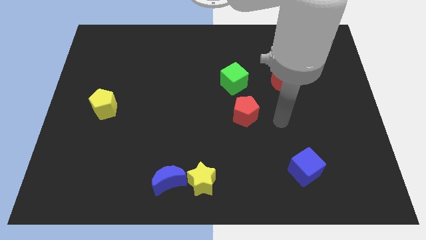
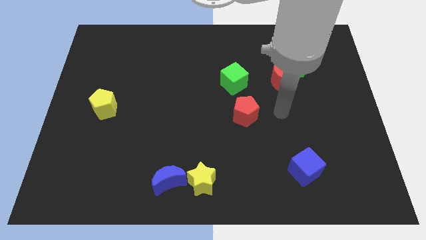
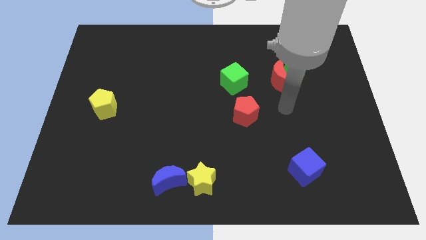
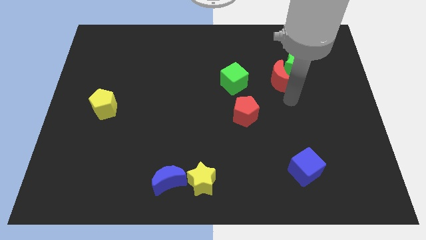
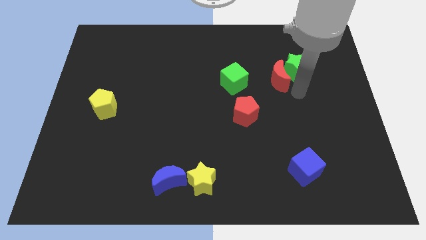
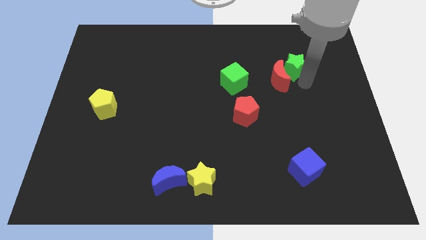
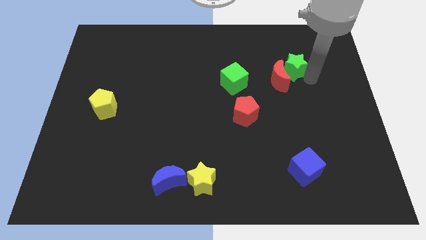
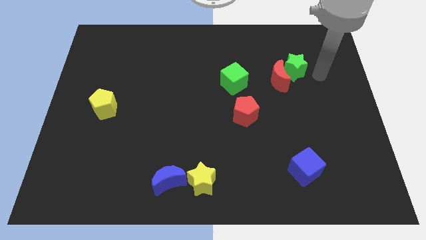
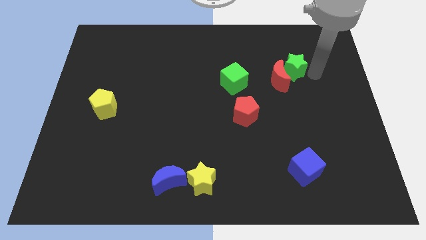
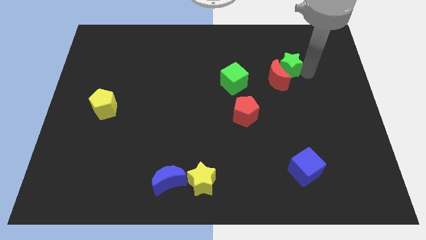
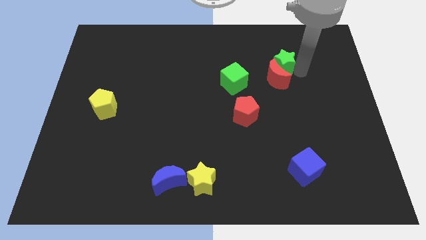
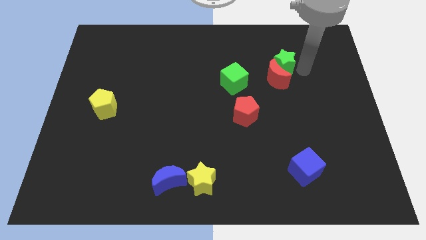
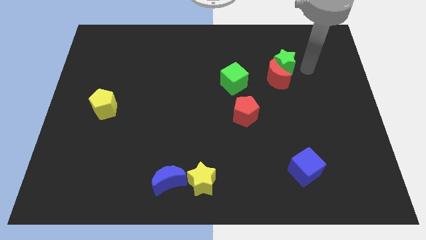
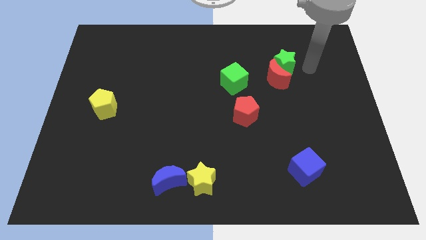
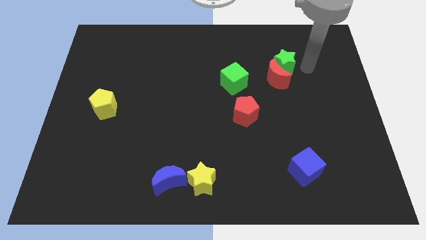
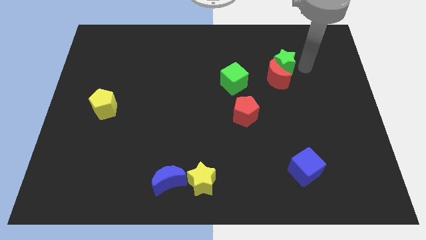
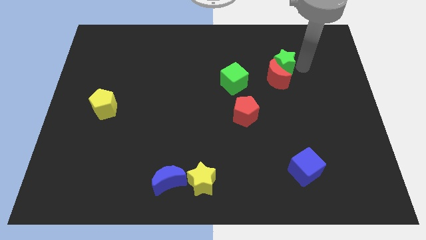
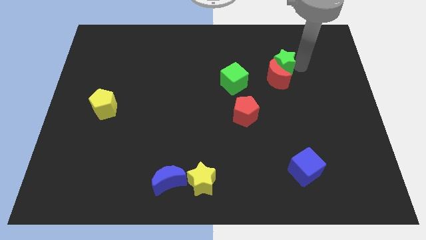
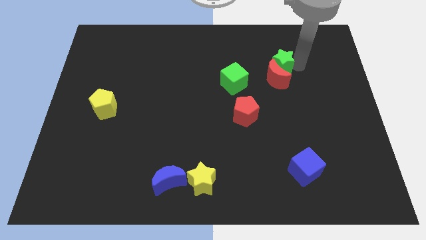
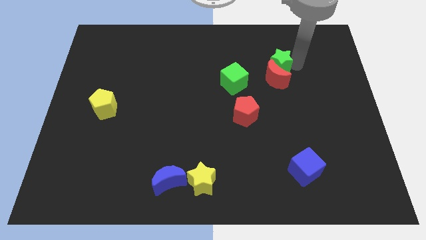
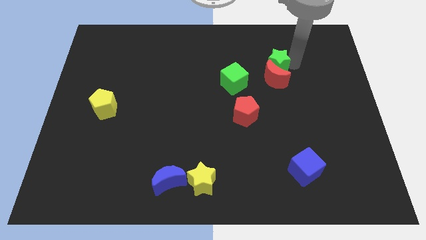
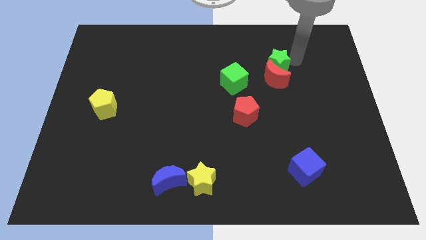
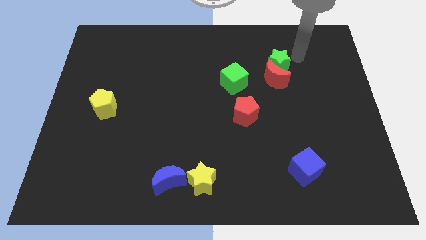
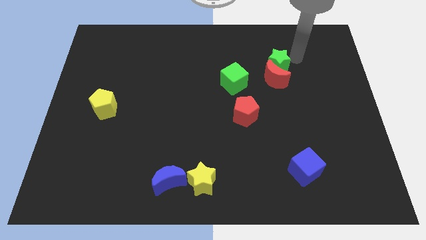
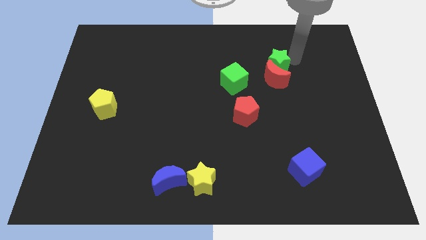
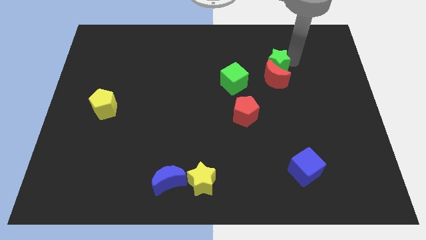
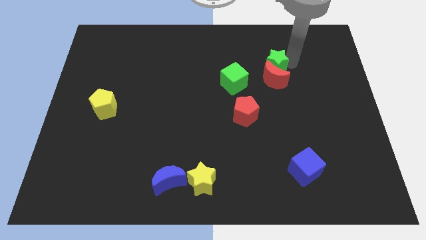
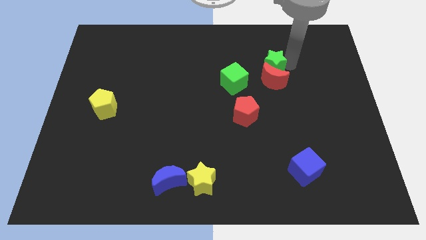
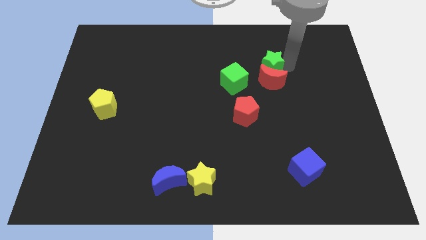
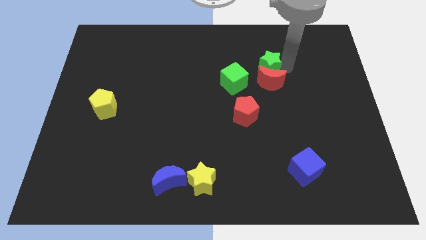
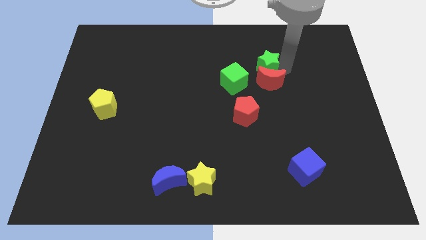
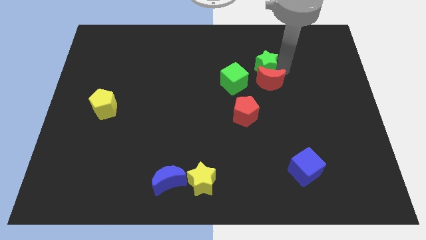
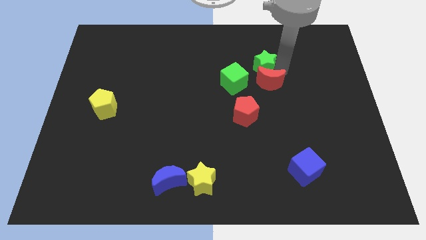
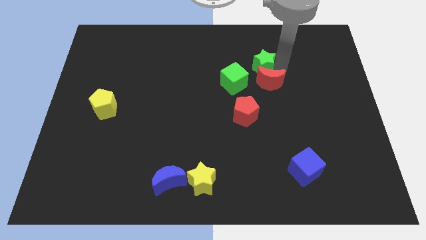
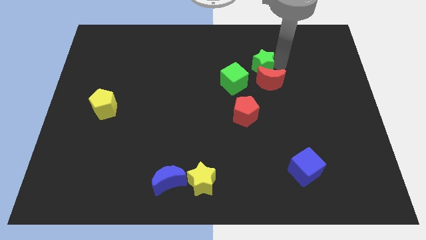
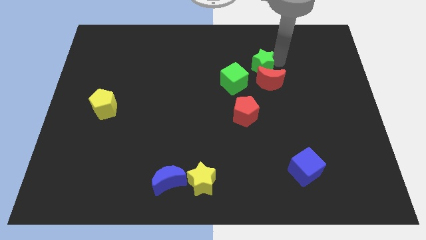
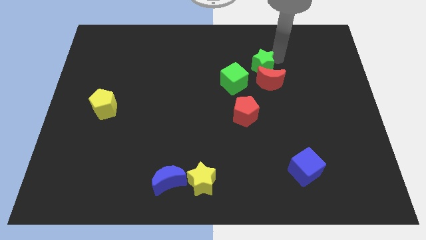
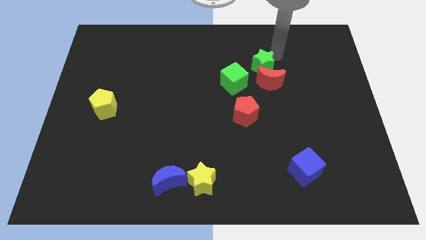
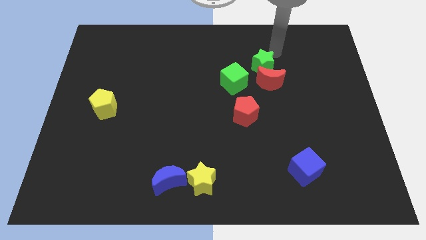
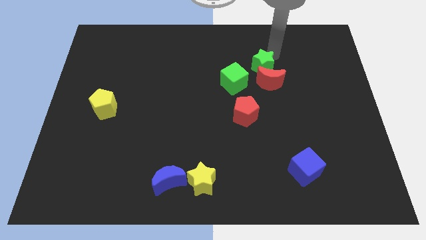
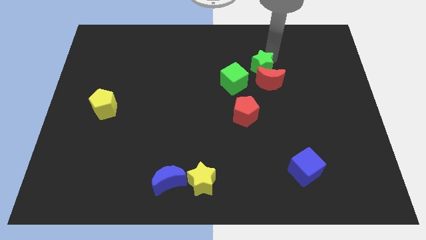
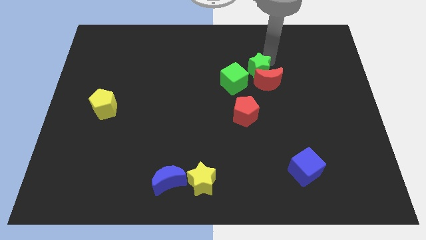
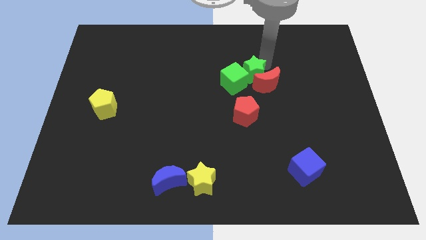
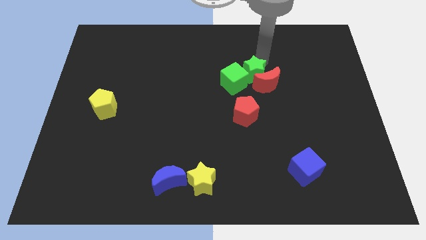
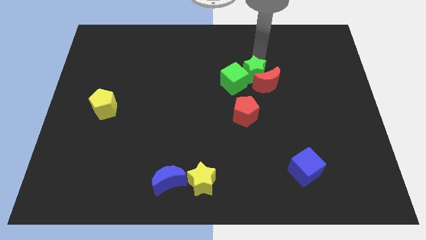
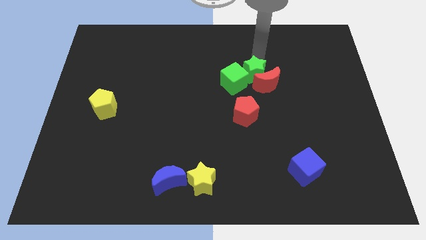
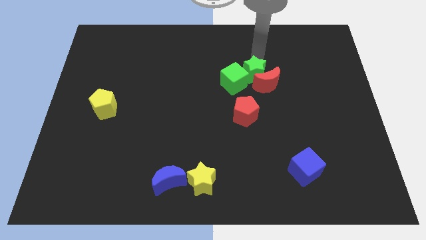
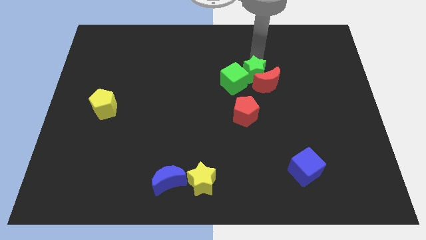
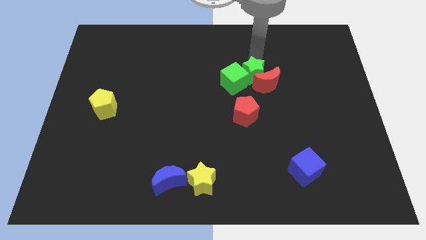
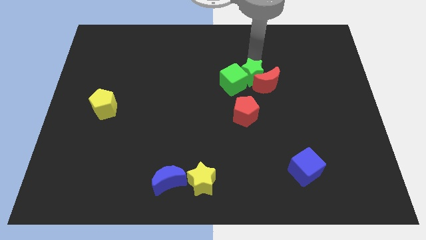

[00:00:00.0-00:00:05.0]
push the green star to the center

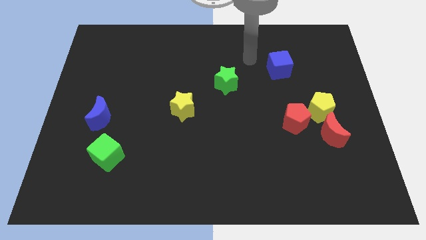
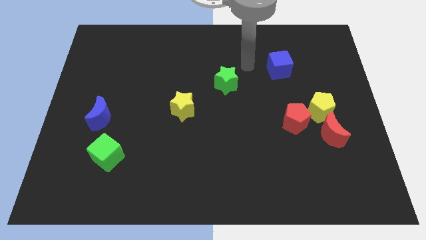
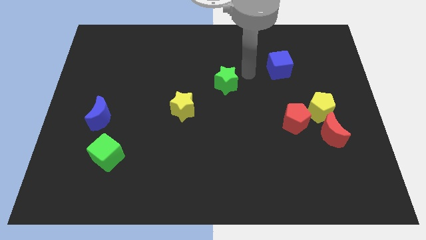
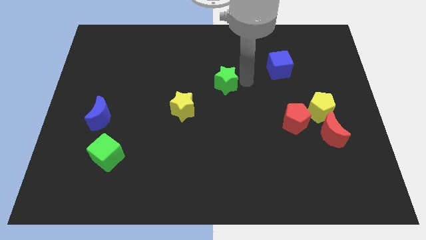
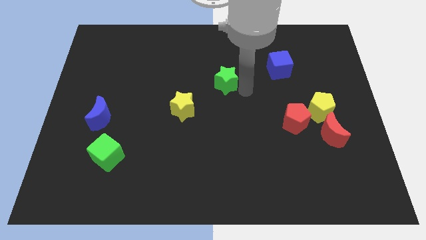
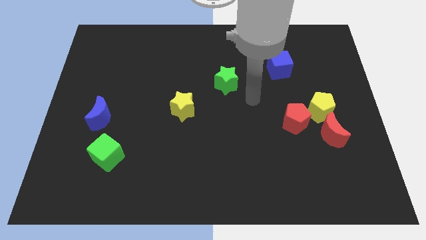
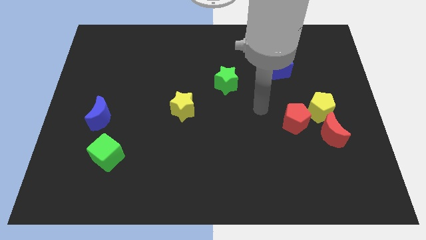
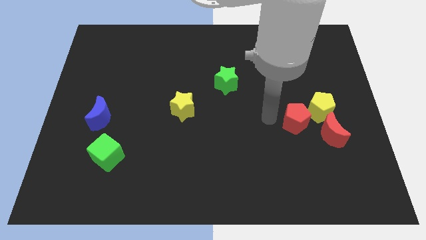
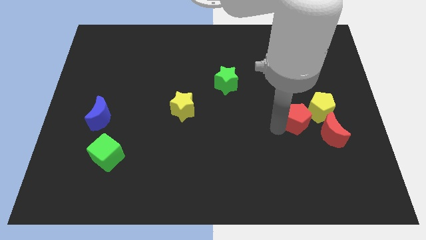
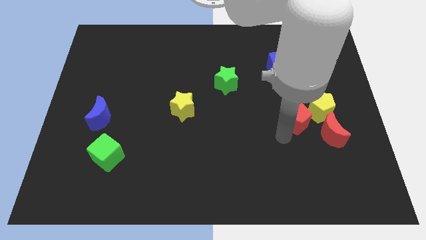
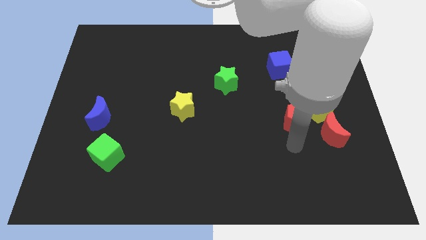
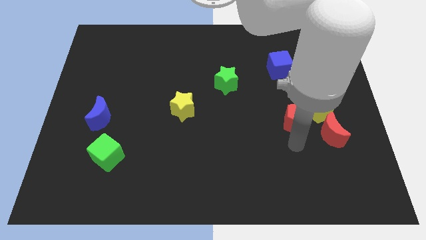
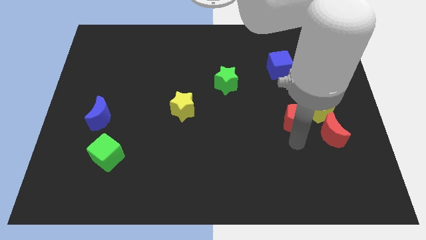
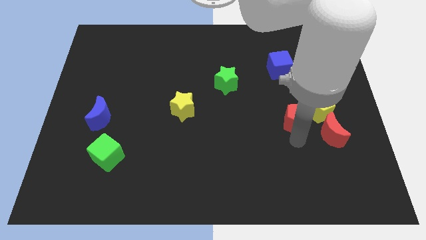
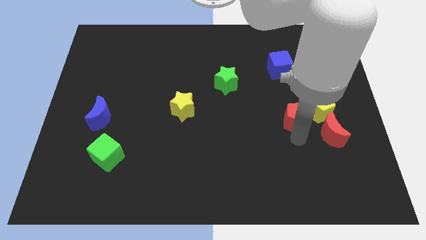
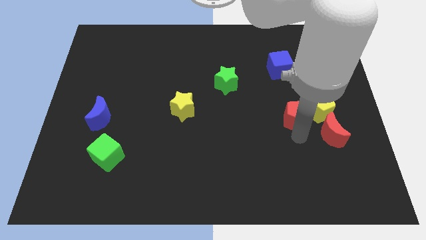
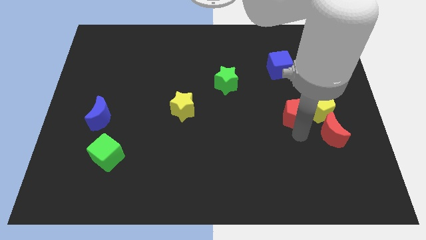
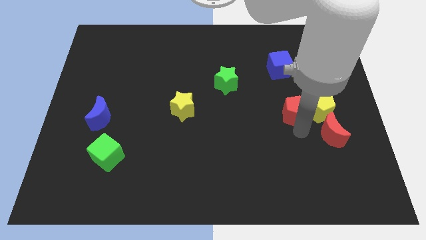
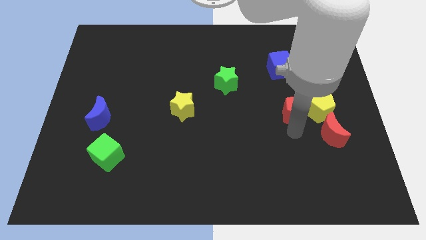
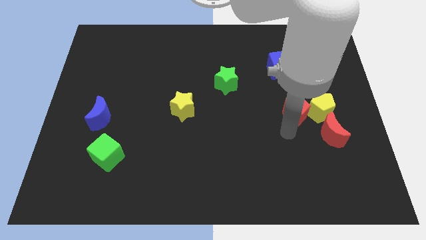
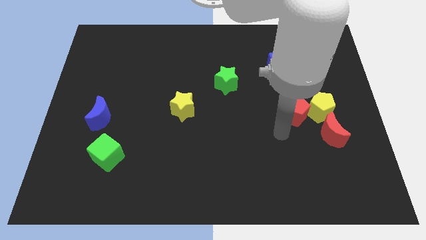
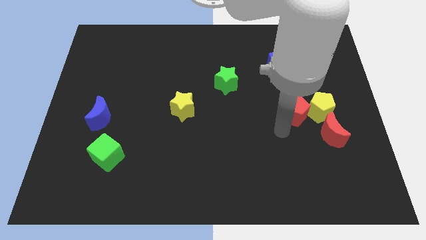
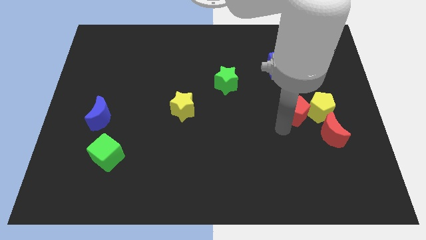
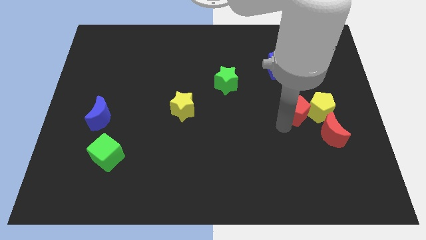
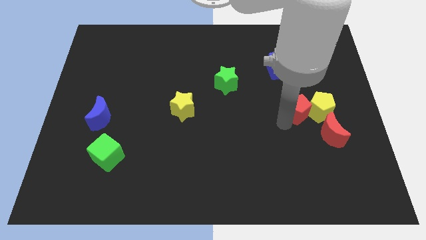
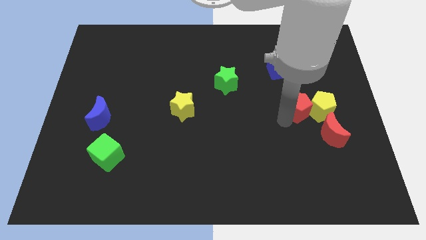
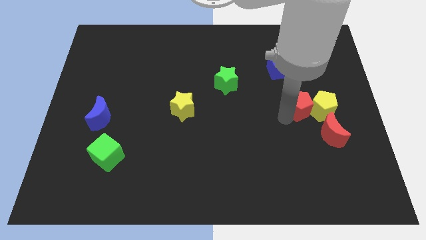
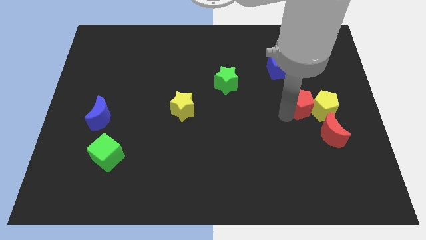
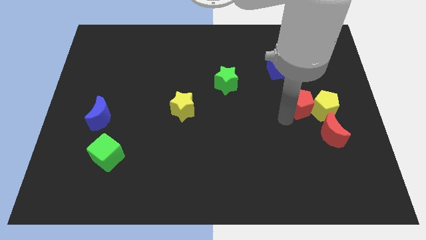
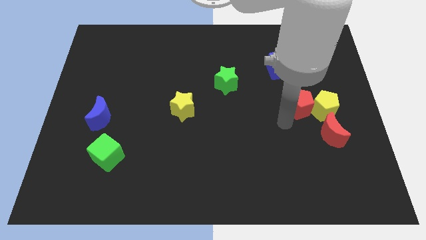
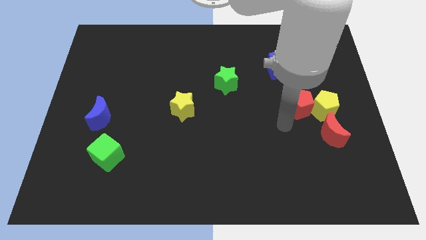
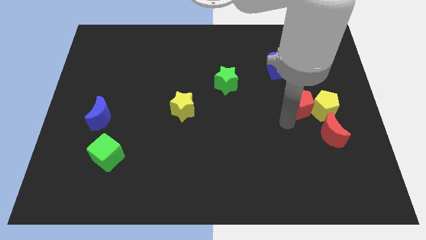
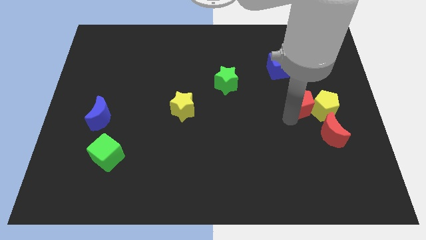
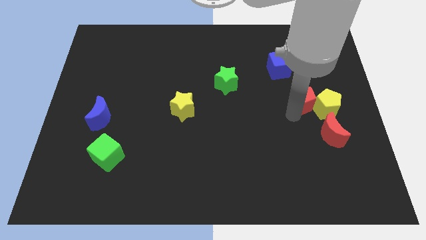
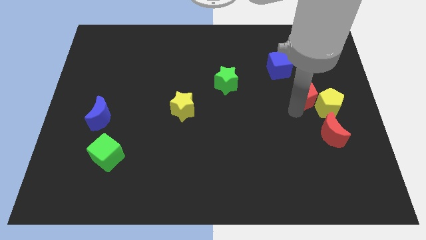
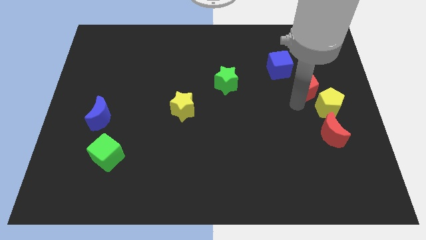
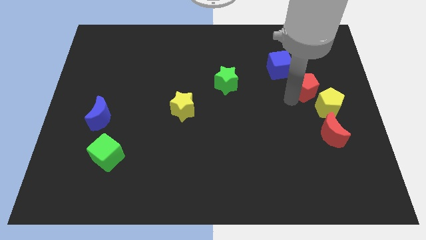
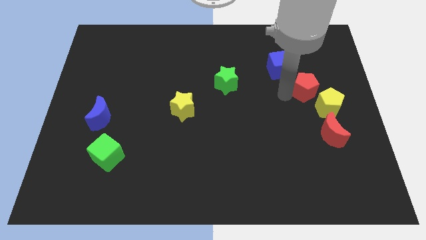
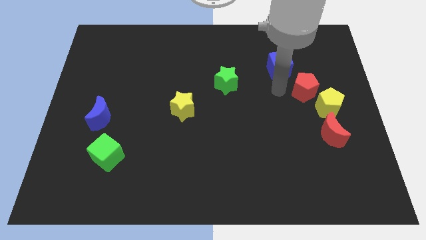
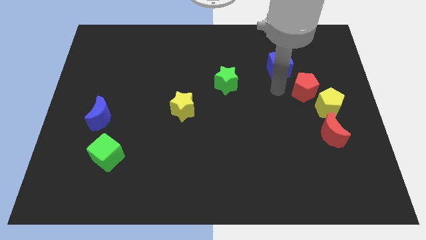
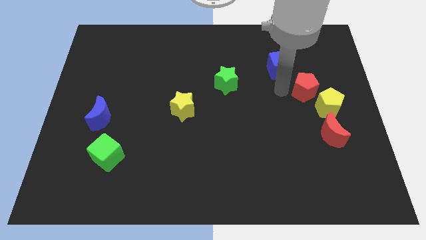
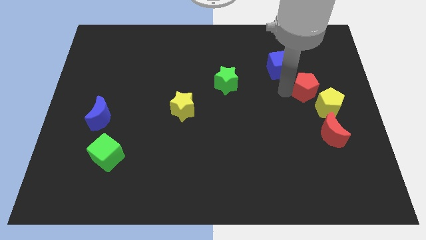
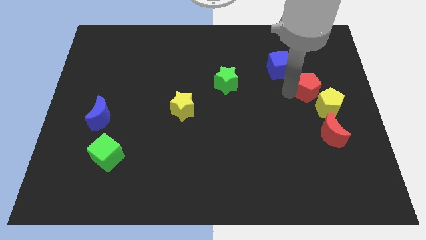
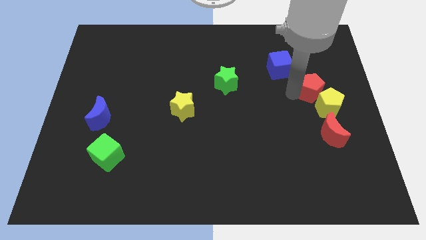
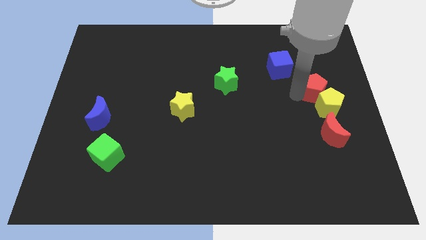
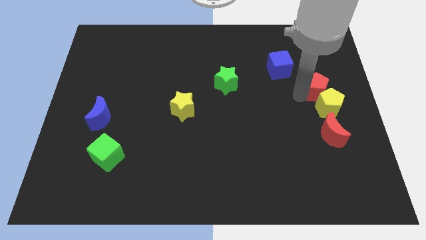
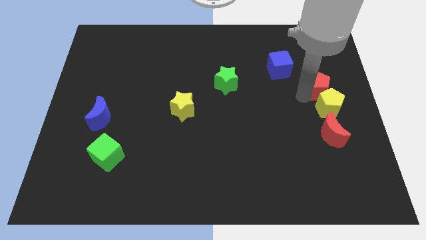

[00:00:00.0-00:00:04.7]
move the red pentagon to the right side of the board
